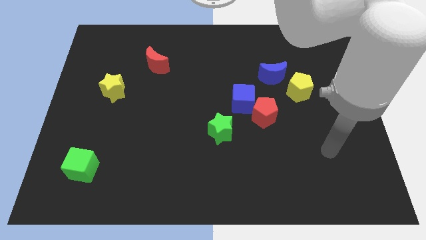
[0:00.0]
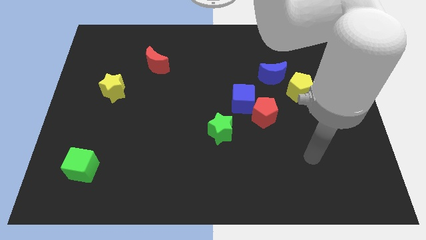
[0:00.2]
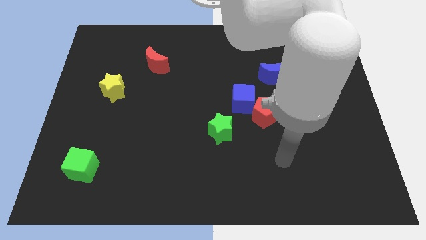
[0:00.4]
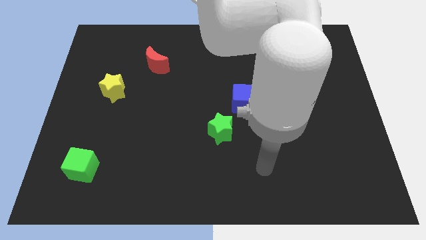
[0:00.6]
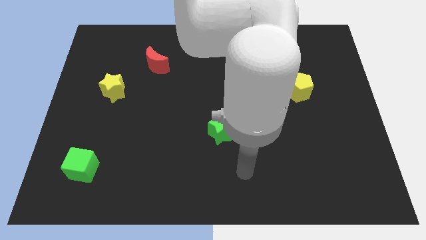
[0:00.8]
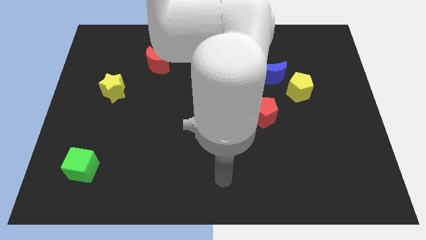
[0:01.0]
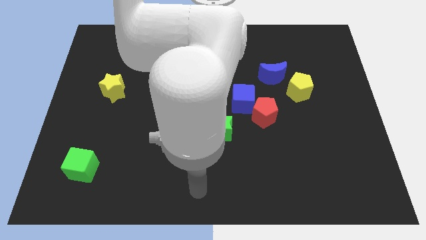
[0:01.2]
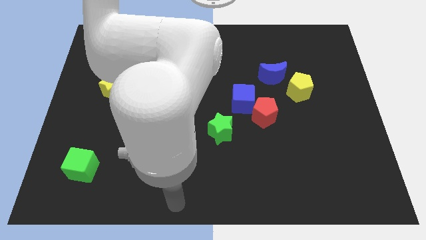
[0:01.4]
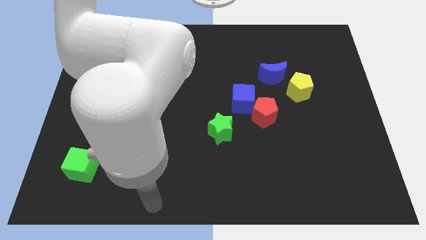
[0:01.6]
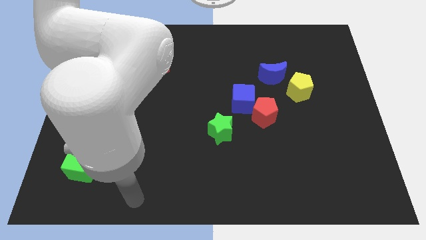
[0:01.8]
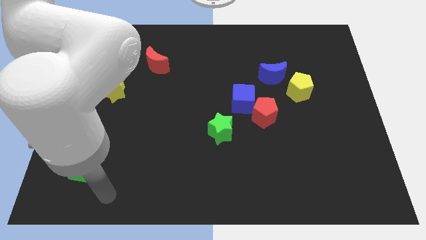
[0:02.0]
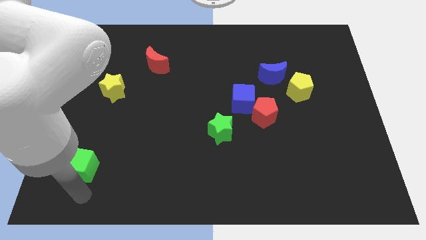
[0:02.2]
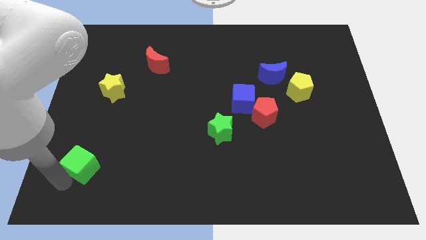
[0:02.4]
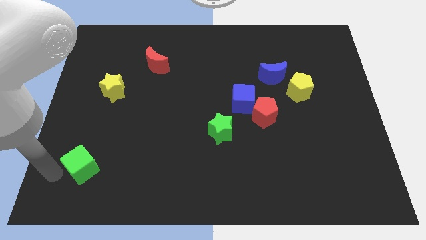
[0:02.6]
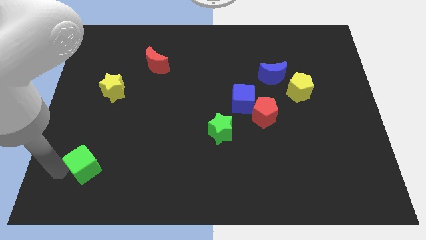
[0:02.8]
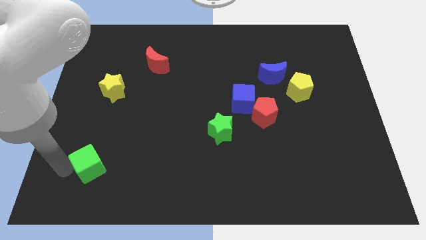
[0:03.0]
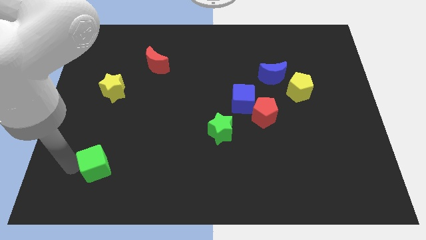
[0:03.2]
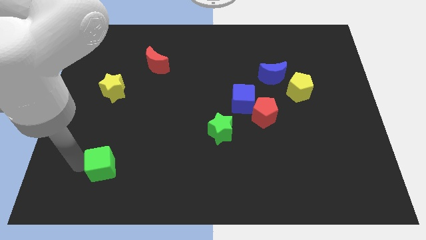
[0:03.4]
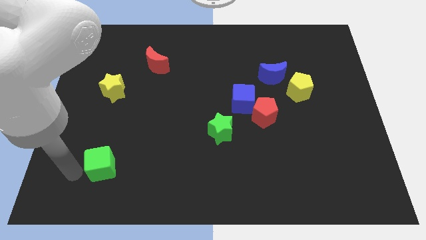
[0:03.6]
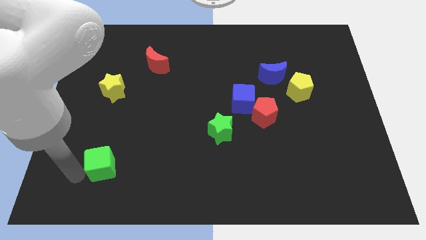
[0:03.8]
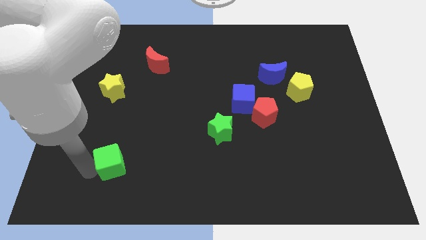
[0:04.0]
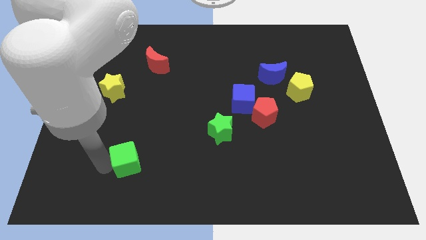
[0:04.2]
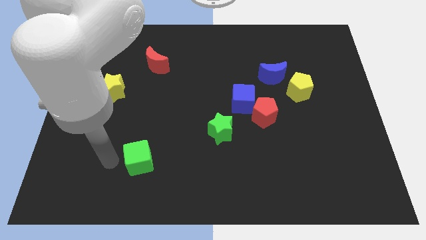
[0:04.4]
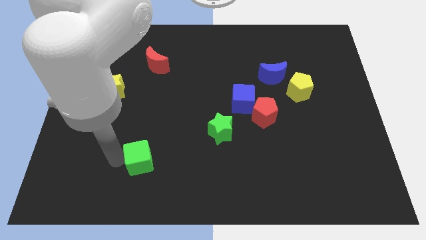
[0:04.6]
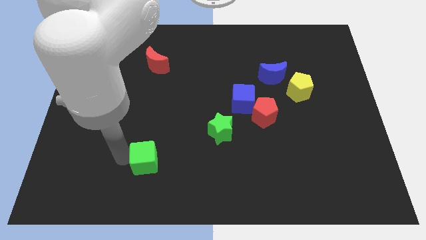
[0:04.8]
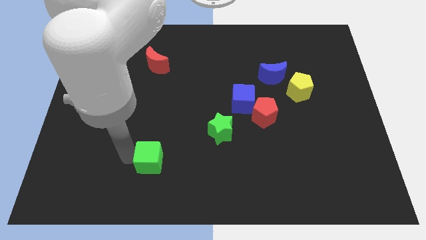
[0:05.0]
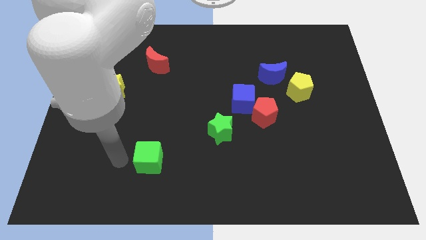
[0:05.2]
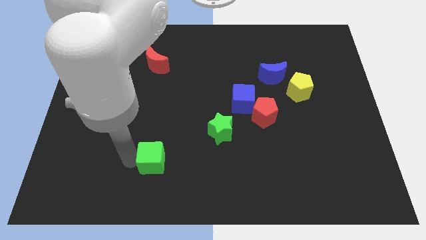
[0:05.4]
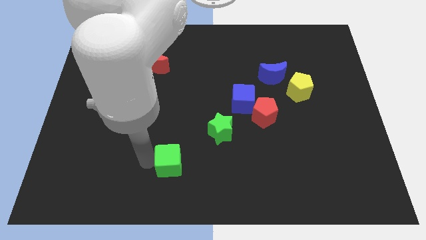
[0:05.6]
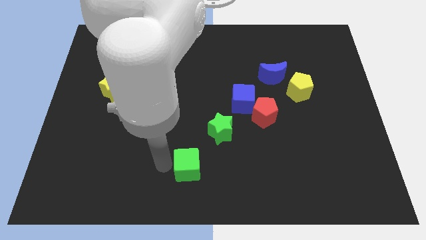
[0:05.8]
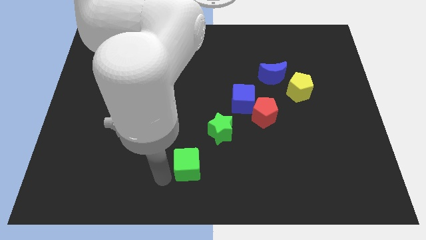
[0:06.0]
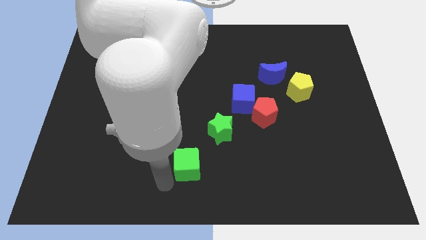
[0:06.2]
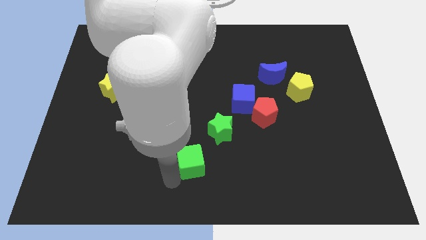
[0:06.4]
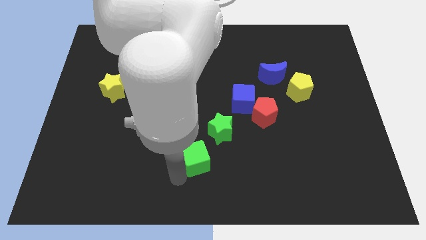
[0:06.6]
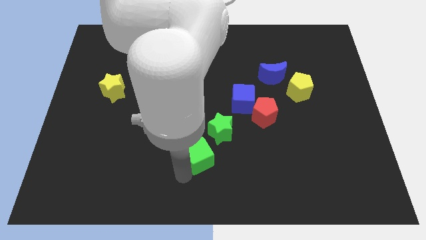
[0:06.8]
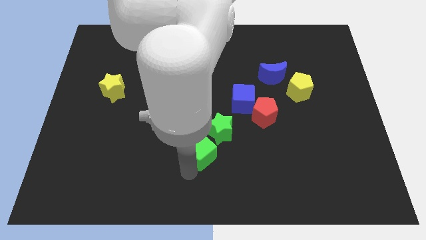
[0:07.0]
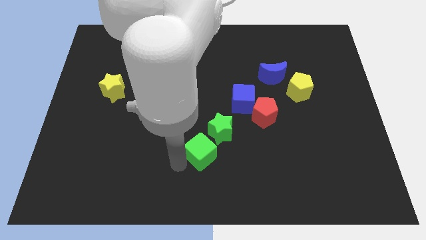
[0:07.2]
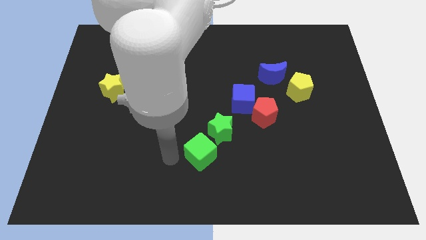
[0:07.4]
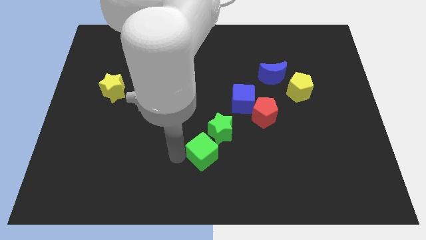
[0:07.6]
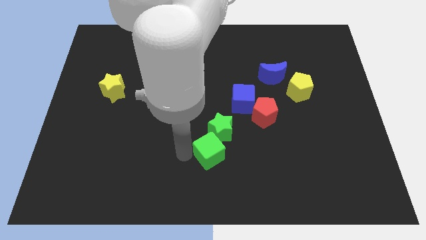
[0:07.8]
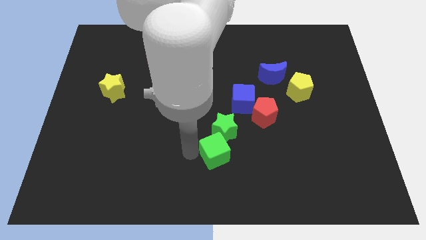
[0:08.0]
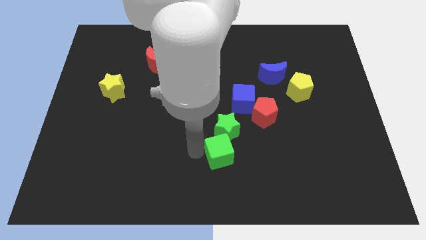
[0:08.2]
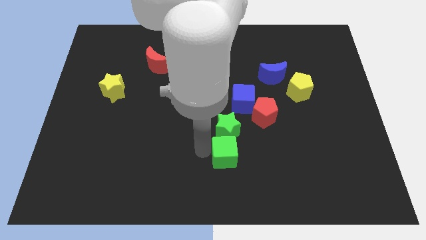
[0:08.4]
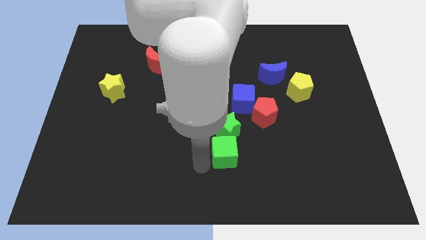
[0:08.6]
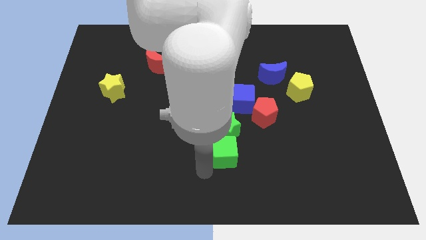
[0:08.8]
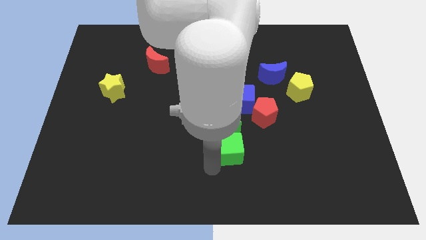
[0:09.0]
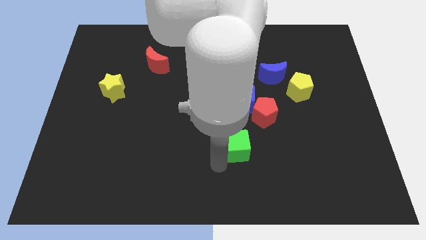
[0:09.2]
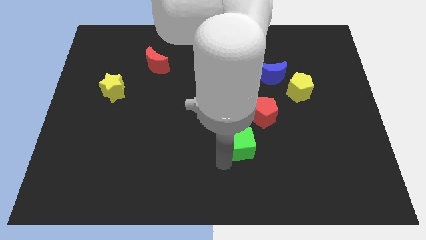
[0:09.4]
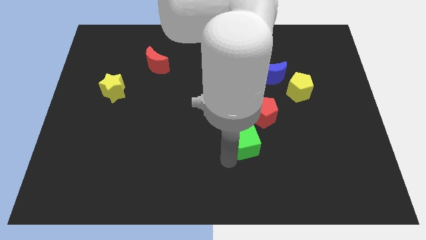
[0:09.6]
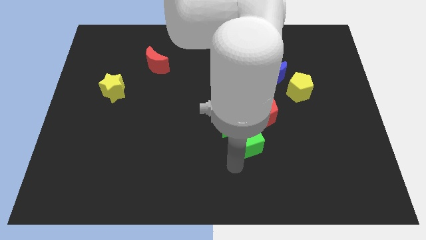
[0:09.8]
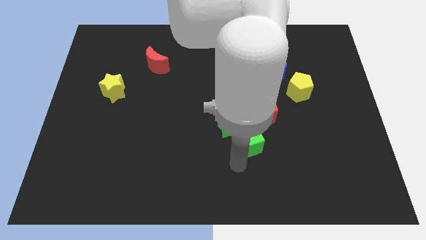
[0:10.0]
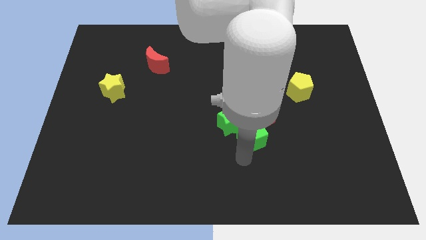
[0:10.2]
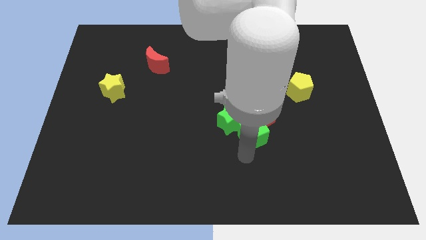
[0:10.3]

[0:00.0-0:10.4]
put the green cube close to the red pentagon

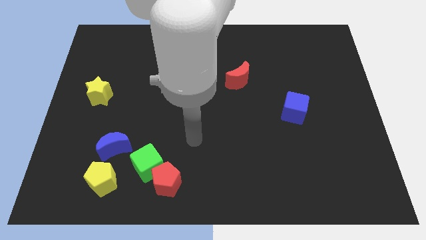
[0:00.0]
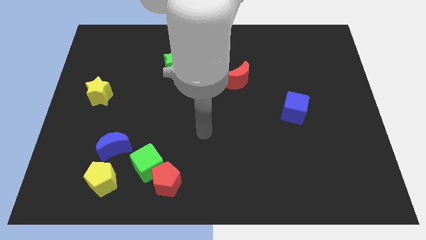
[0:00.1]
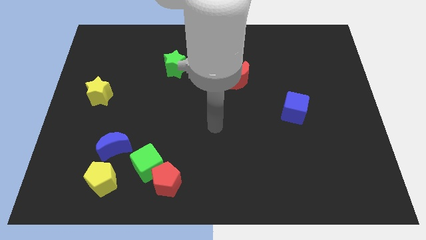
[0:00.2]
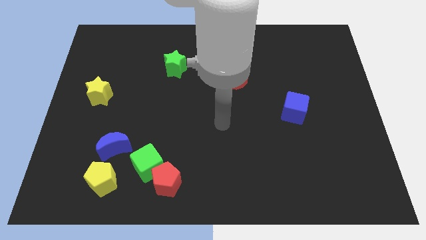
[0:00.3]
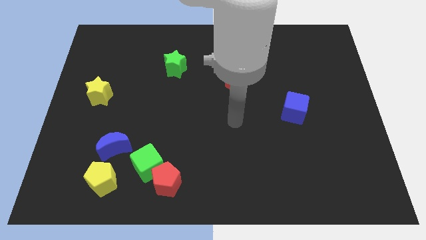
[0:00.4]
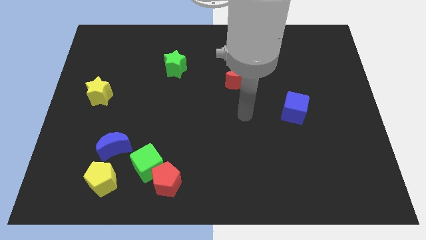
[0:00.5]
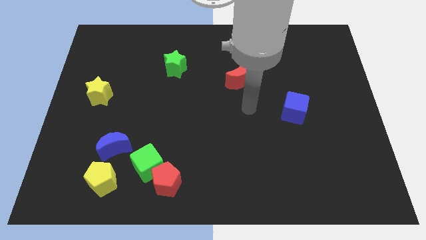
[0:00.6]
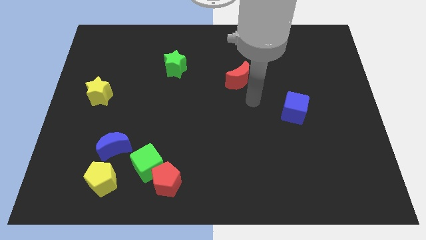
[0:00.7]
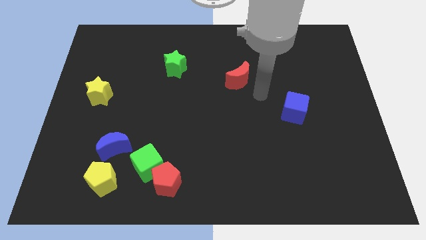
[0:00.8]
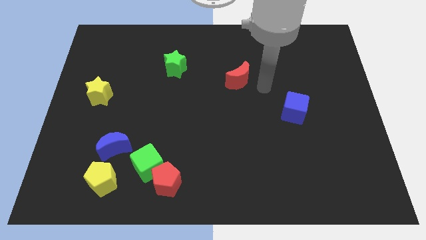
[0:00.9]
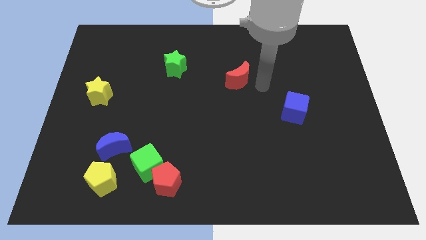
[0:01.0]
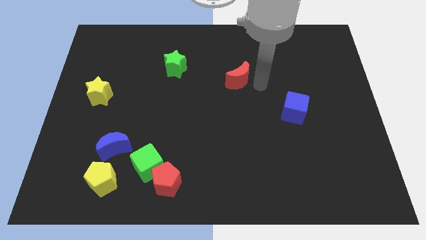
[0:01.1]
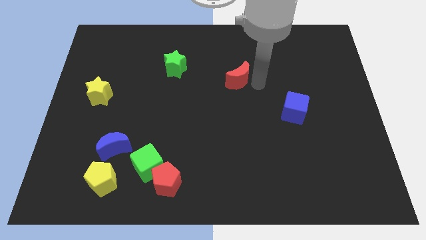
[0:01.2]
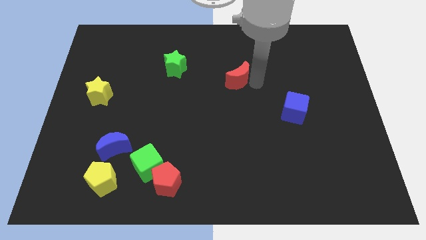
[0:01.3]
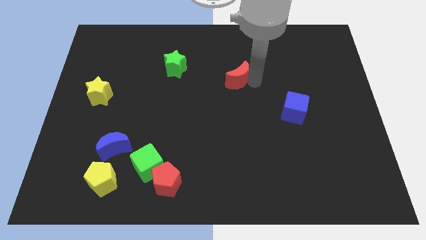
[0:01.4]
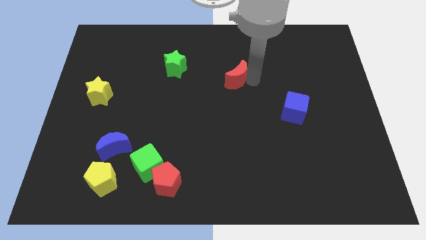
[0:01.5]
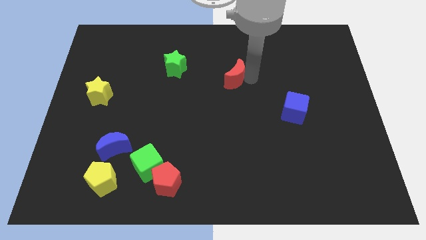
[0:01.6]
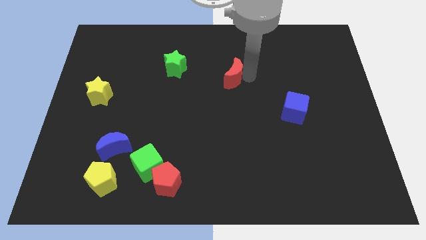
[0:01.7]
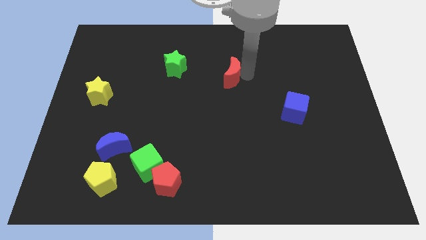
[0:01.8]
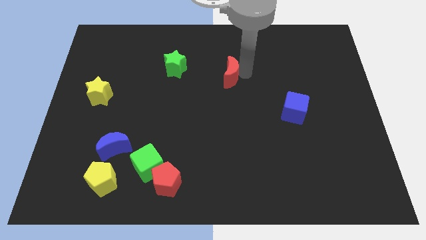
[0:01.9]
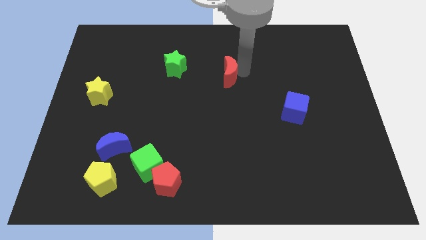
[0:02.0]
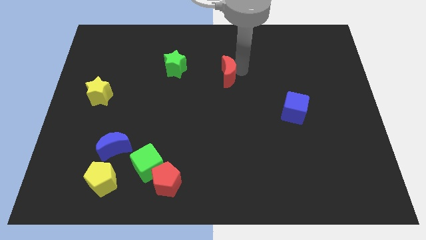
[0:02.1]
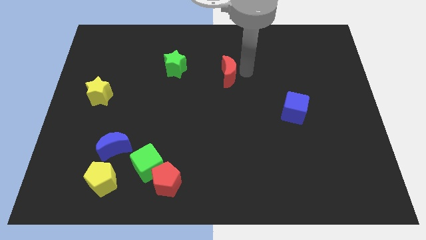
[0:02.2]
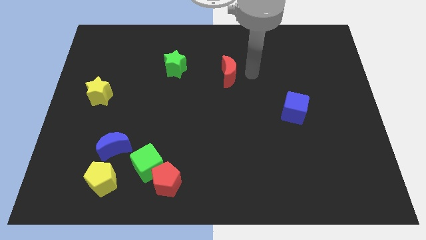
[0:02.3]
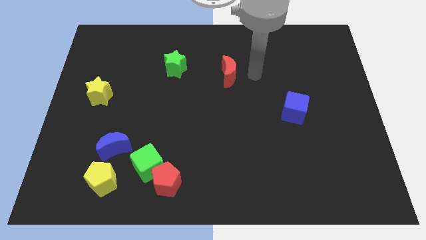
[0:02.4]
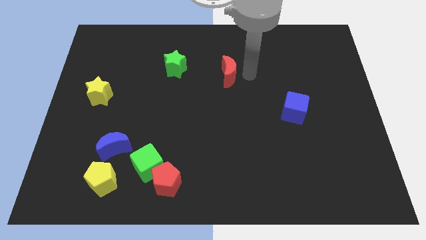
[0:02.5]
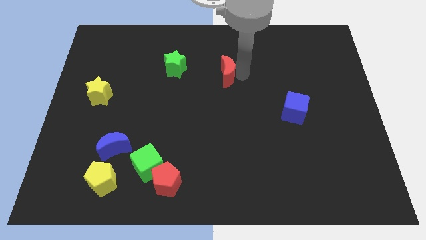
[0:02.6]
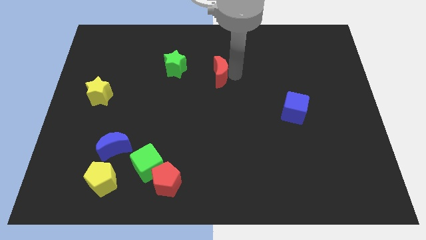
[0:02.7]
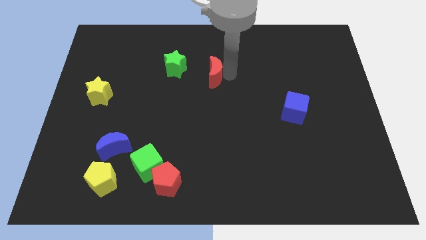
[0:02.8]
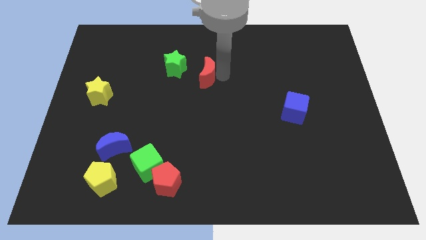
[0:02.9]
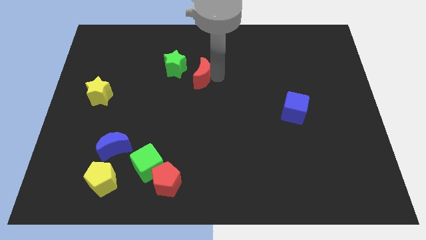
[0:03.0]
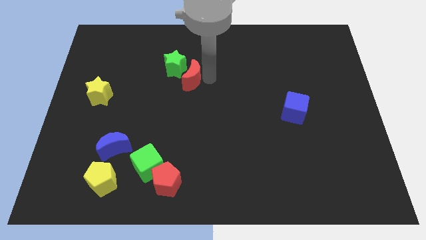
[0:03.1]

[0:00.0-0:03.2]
push the red moon to the green star
